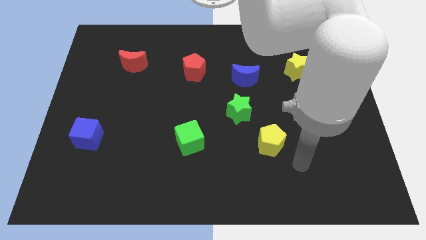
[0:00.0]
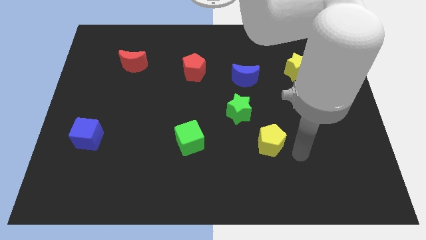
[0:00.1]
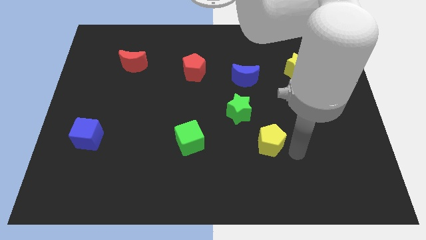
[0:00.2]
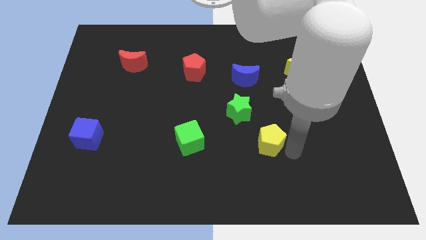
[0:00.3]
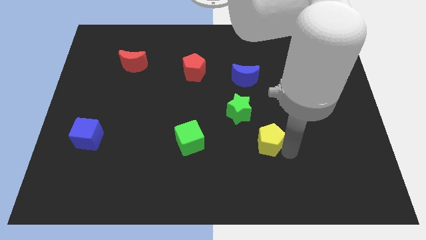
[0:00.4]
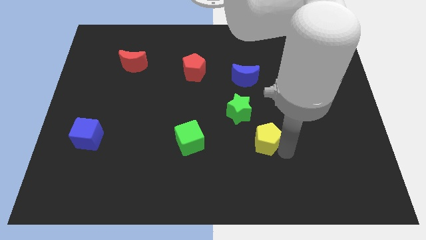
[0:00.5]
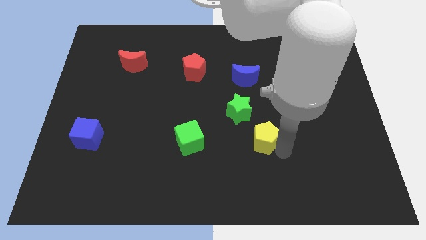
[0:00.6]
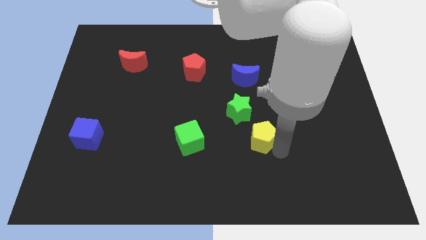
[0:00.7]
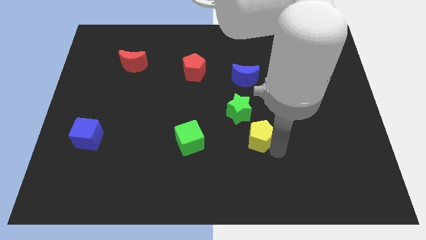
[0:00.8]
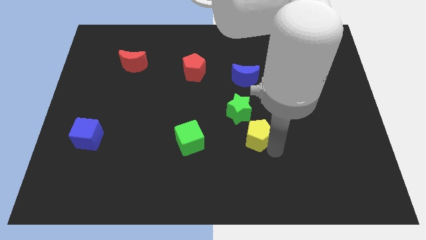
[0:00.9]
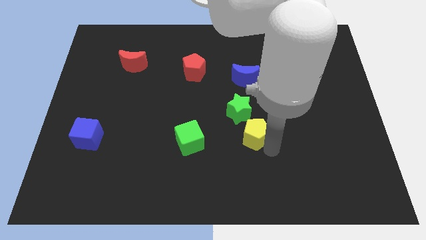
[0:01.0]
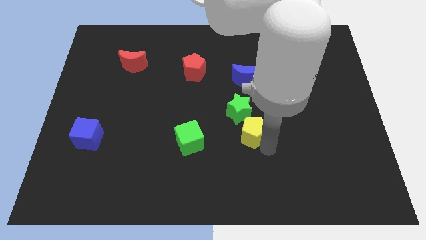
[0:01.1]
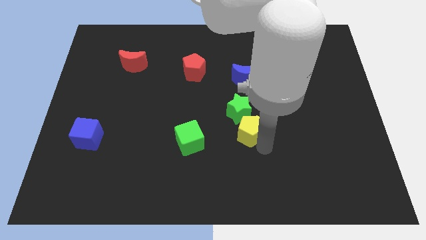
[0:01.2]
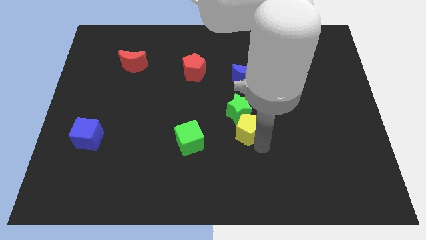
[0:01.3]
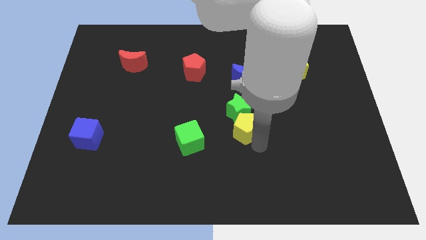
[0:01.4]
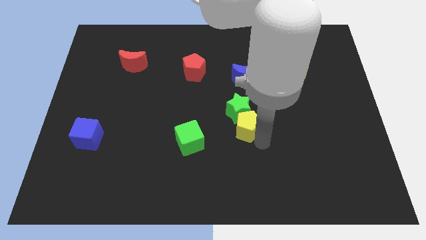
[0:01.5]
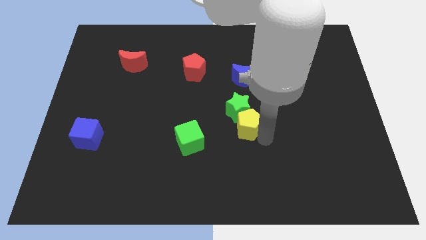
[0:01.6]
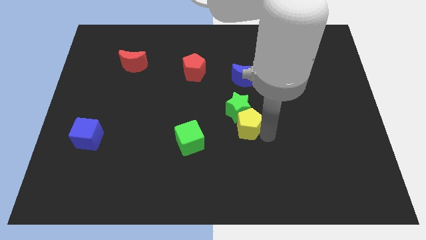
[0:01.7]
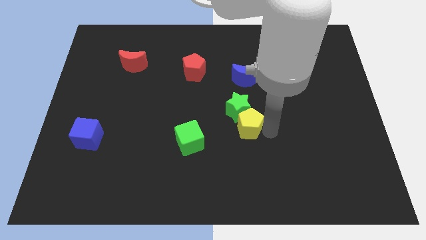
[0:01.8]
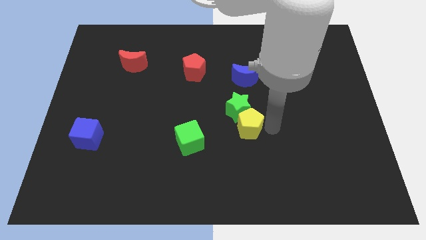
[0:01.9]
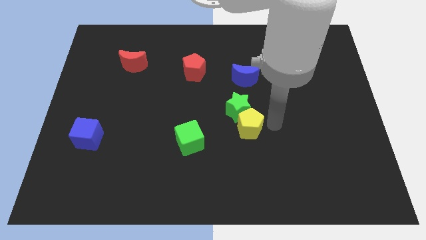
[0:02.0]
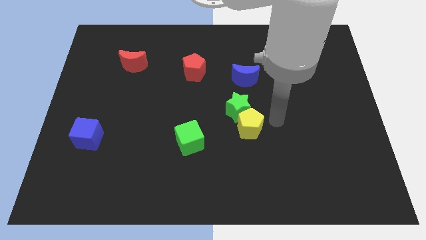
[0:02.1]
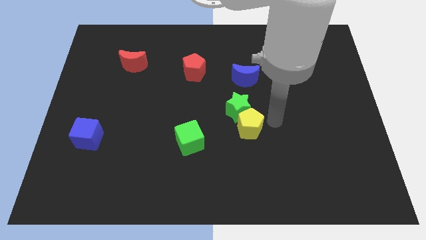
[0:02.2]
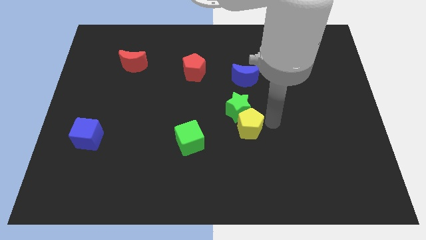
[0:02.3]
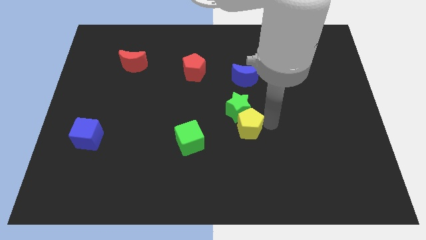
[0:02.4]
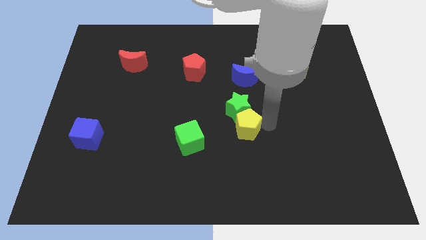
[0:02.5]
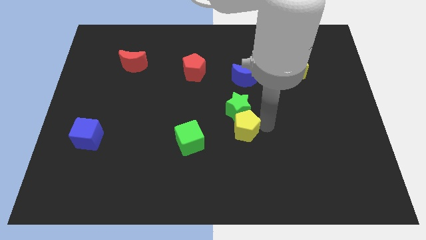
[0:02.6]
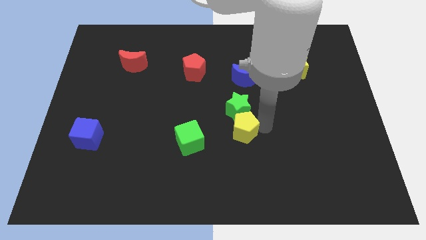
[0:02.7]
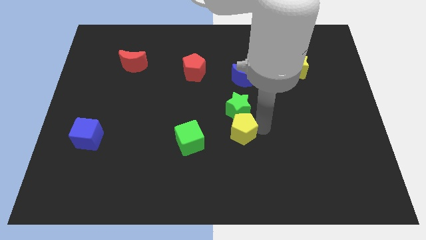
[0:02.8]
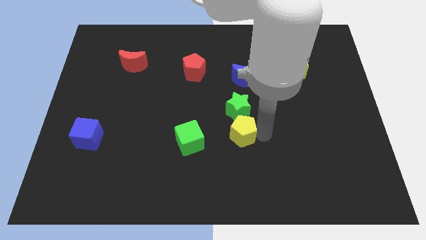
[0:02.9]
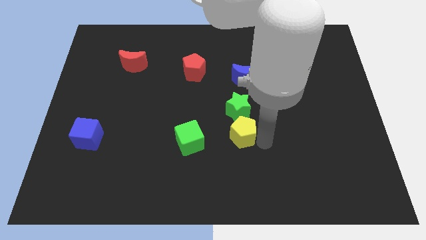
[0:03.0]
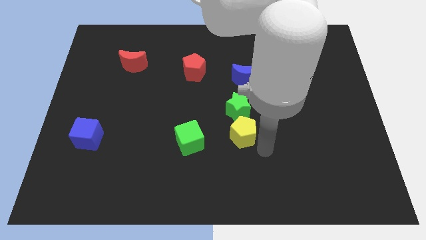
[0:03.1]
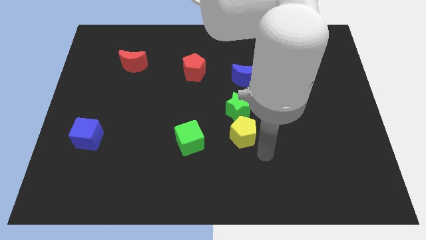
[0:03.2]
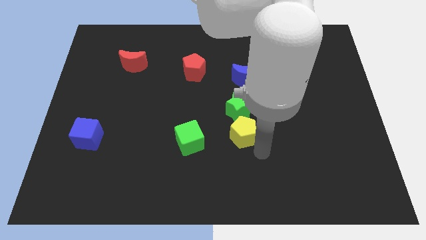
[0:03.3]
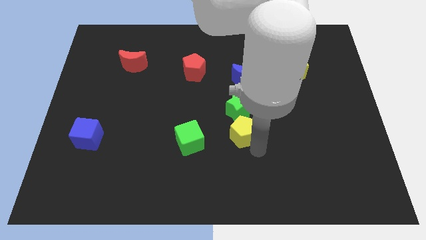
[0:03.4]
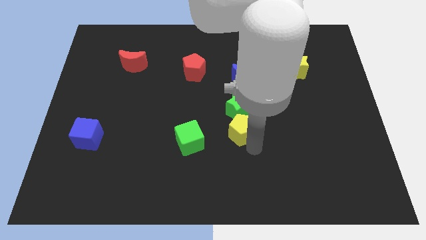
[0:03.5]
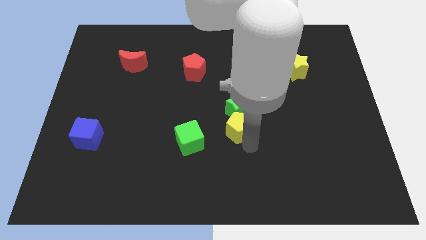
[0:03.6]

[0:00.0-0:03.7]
push the yellow pentagon upwards and to the left somewhat

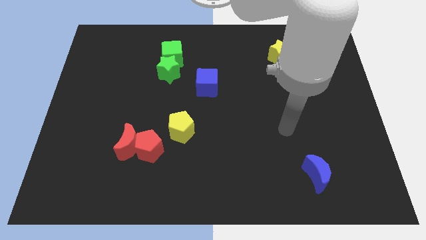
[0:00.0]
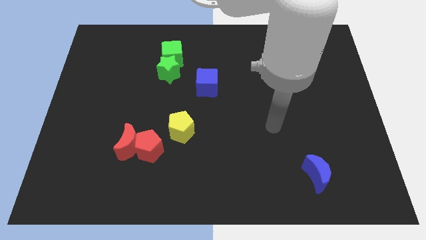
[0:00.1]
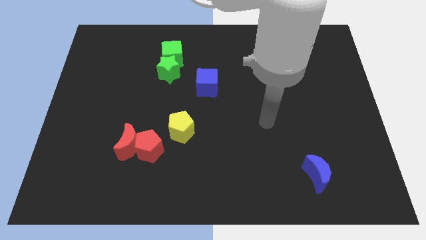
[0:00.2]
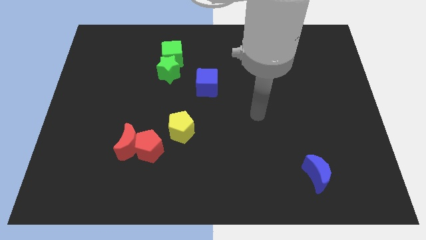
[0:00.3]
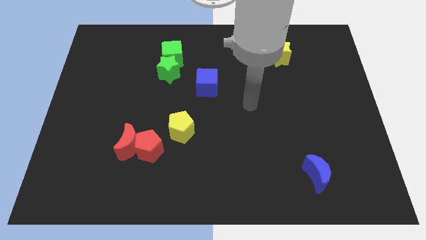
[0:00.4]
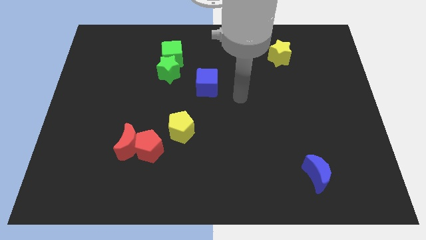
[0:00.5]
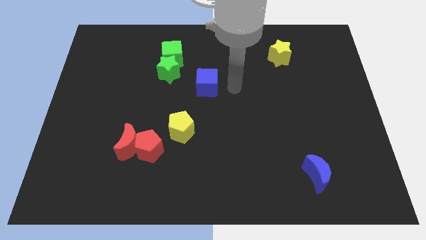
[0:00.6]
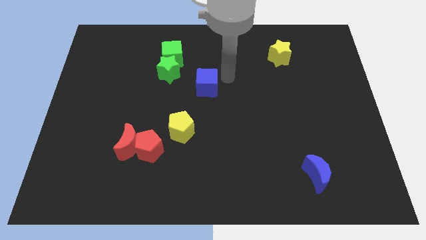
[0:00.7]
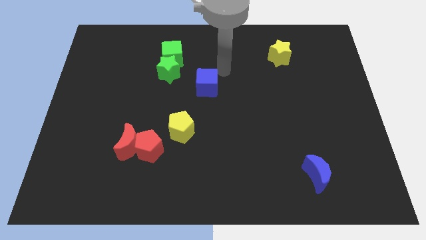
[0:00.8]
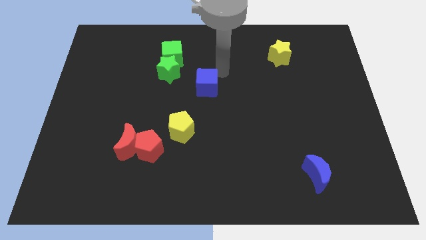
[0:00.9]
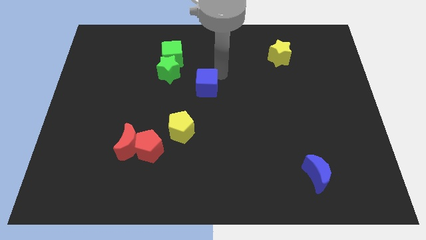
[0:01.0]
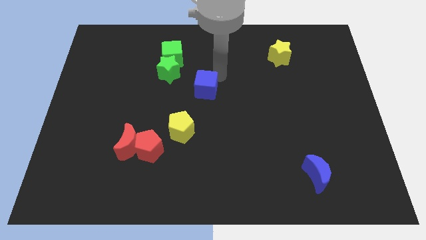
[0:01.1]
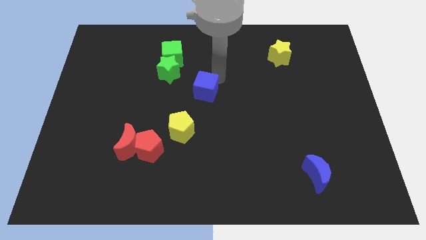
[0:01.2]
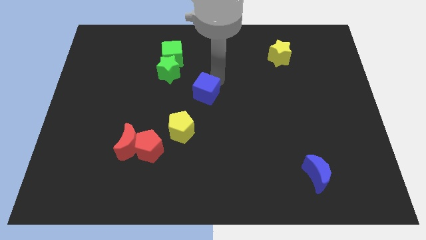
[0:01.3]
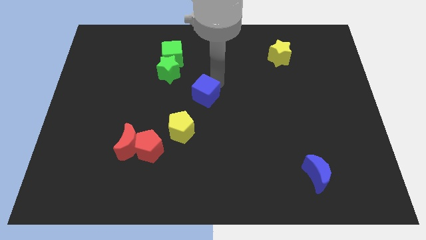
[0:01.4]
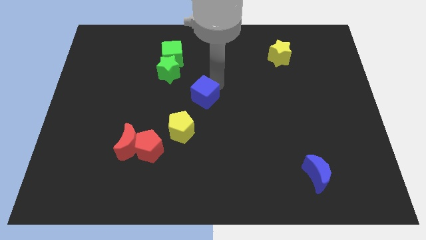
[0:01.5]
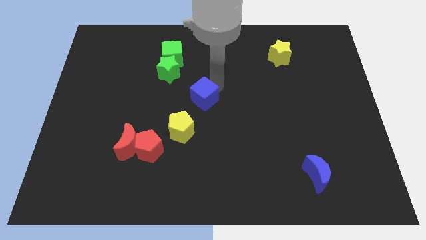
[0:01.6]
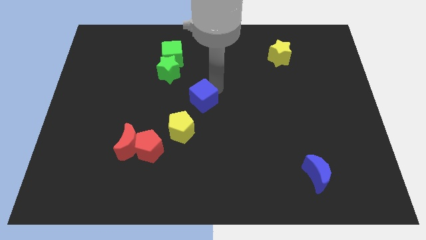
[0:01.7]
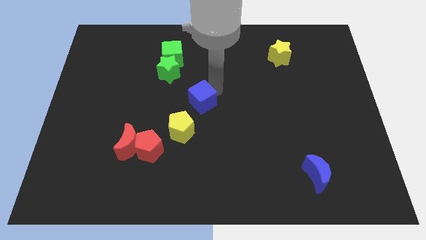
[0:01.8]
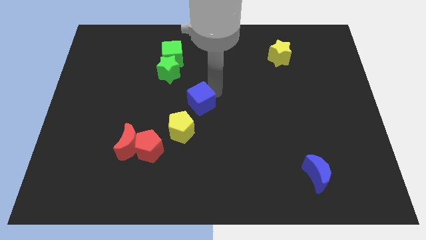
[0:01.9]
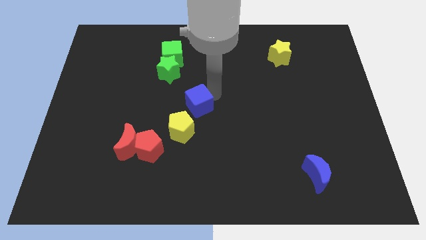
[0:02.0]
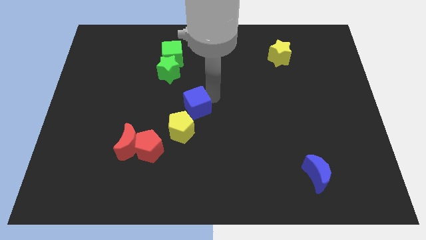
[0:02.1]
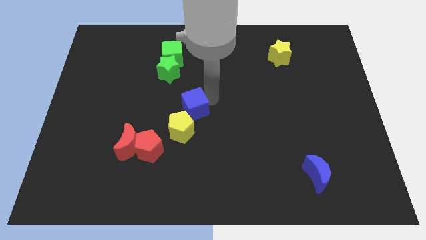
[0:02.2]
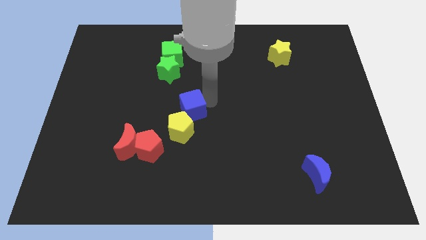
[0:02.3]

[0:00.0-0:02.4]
slightly slide the blue cube down and to the left diagonally

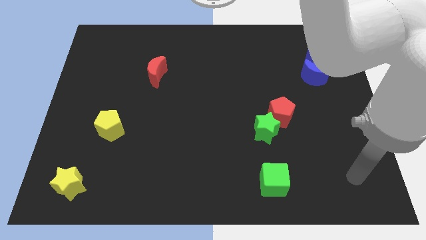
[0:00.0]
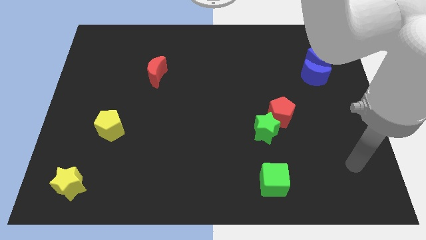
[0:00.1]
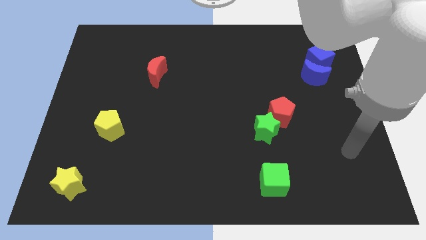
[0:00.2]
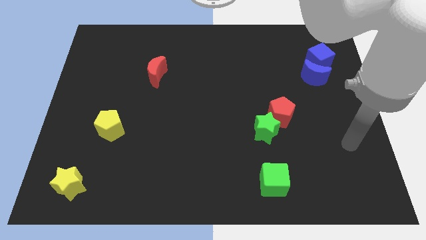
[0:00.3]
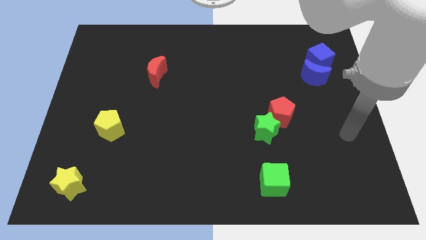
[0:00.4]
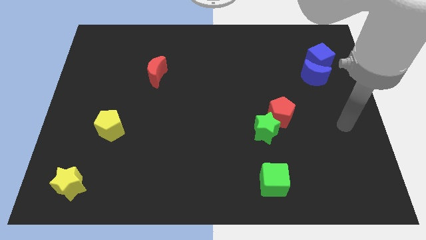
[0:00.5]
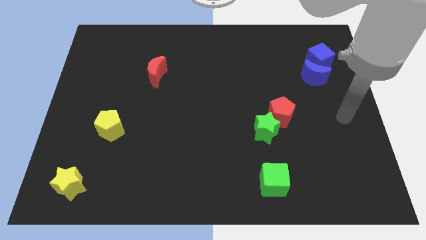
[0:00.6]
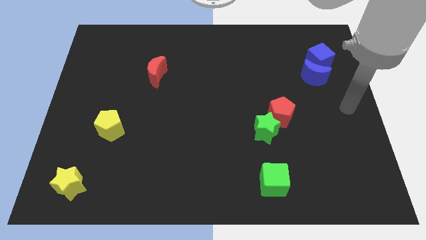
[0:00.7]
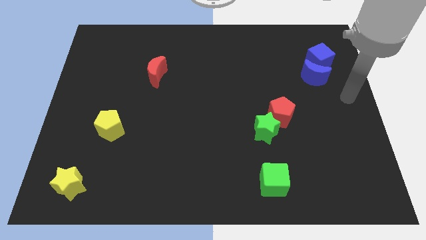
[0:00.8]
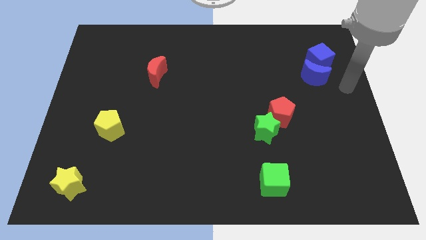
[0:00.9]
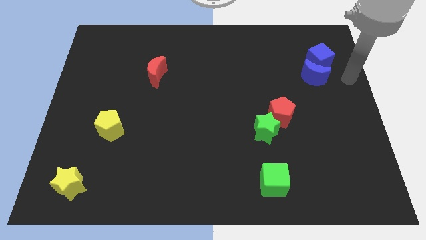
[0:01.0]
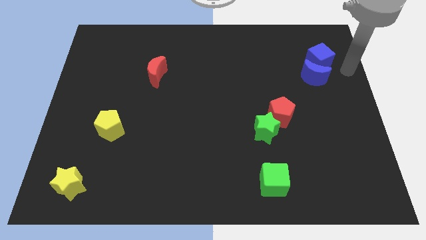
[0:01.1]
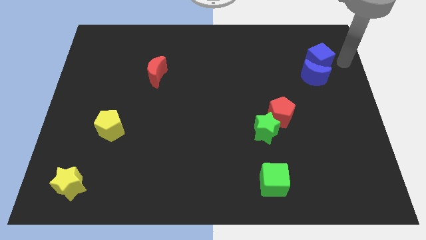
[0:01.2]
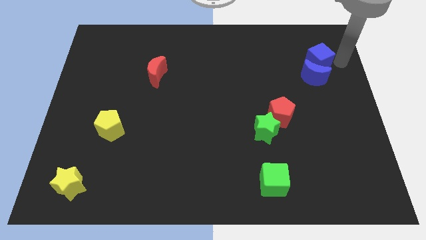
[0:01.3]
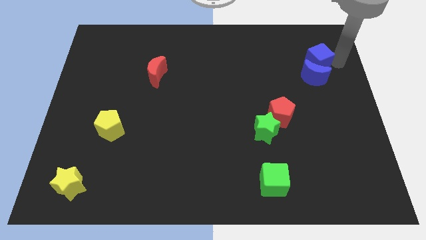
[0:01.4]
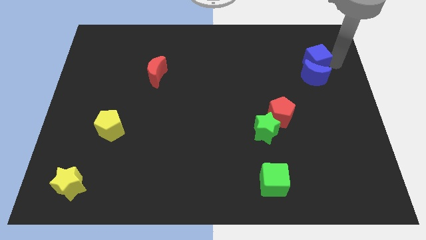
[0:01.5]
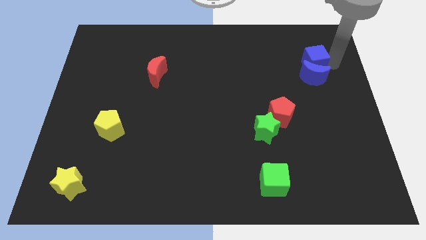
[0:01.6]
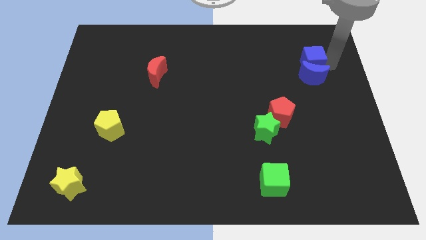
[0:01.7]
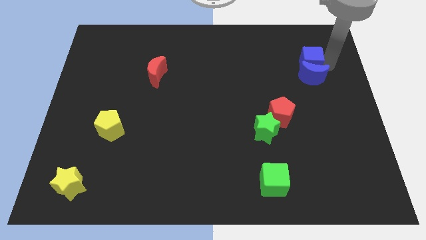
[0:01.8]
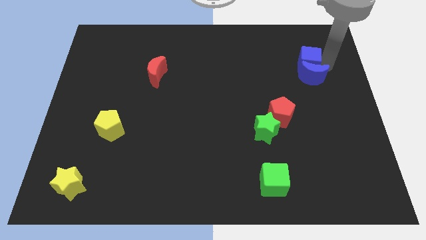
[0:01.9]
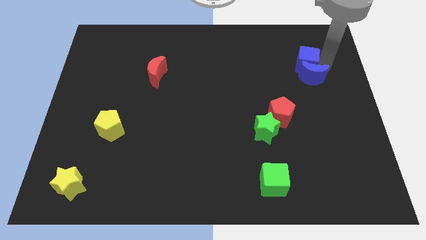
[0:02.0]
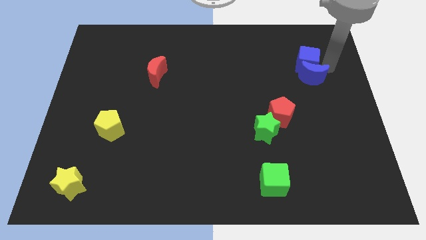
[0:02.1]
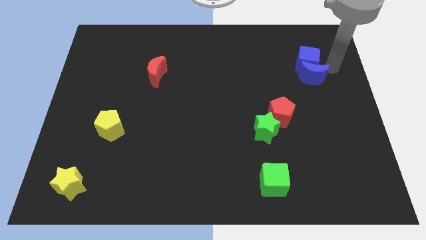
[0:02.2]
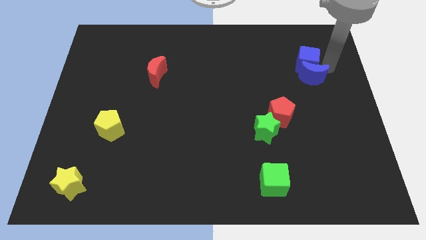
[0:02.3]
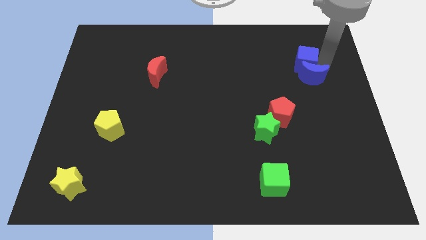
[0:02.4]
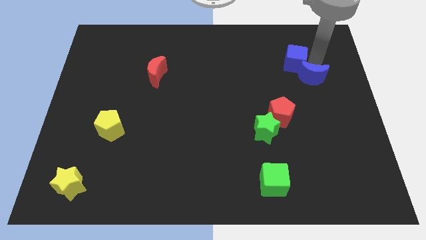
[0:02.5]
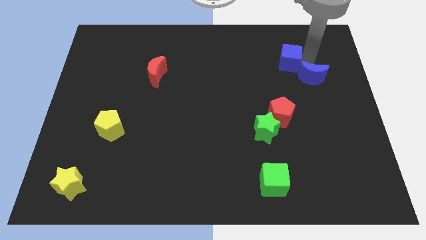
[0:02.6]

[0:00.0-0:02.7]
push the blue cube left a bit
